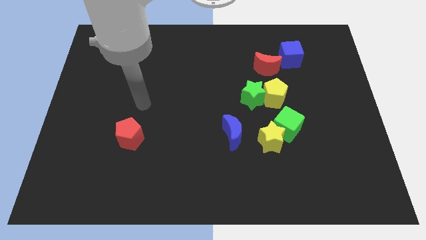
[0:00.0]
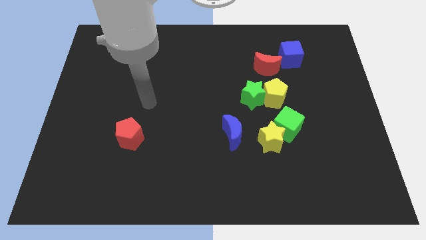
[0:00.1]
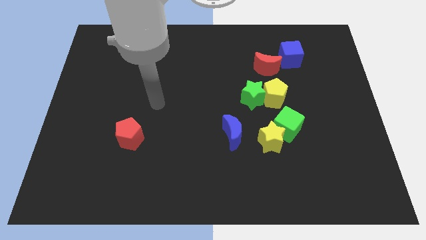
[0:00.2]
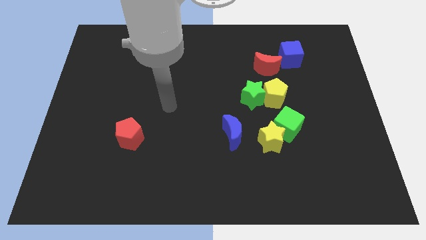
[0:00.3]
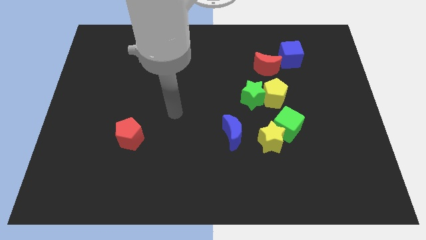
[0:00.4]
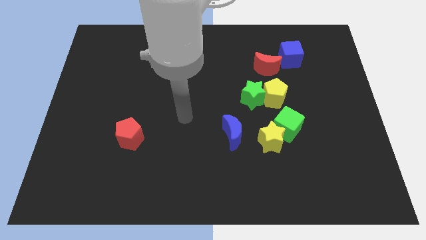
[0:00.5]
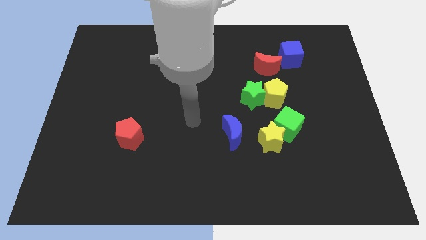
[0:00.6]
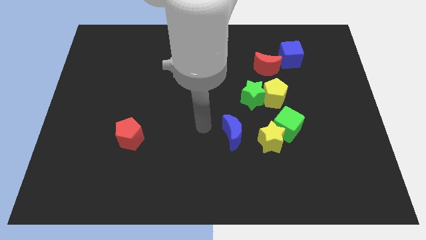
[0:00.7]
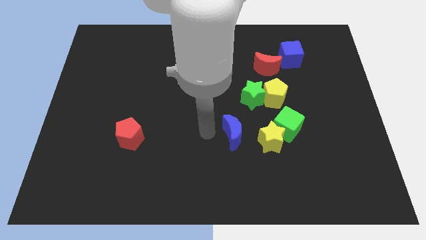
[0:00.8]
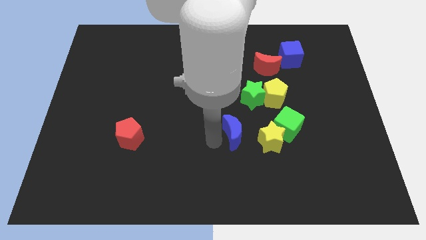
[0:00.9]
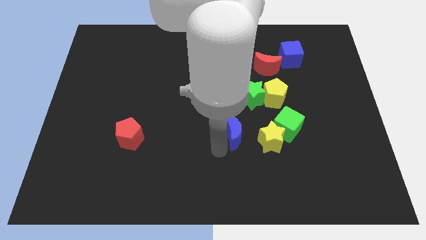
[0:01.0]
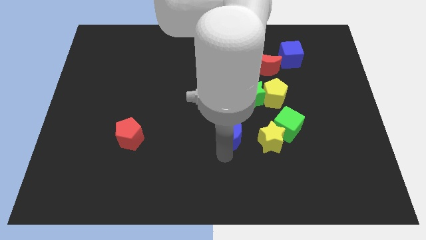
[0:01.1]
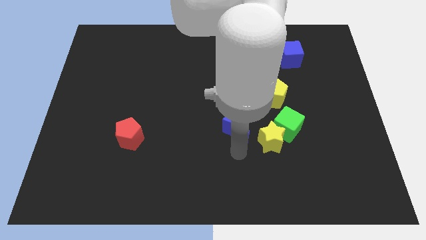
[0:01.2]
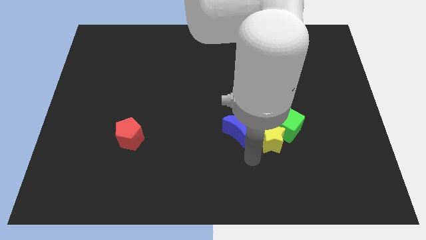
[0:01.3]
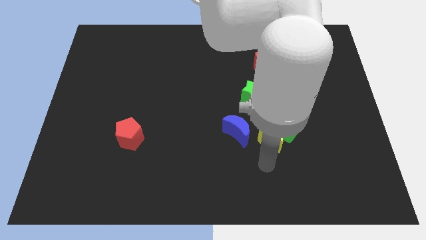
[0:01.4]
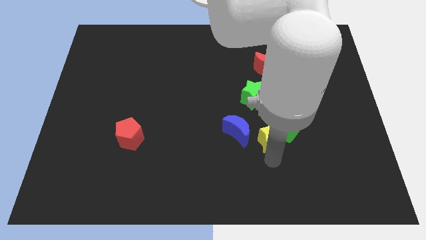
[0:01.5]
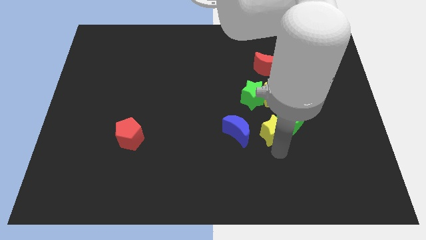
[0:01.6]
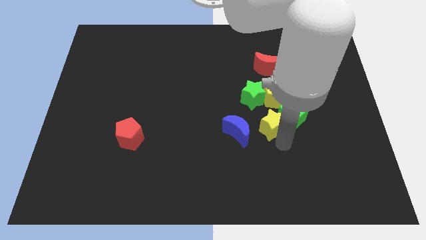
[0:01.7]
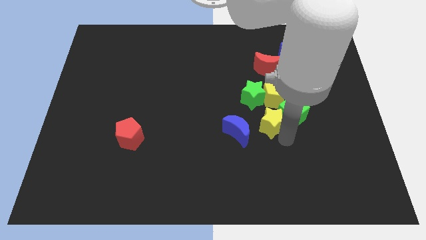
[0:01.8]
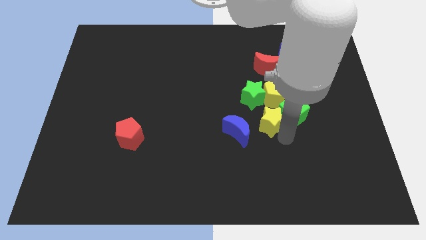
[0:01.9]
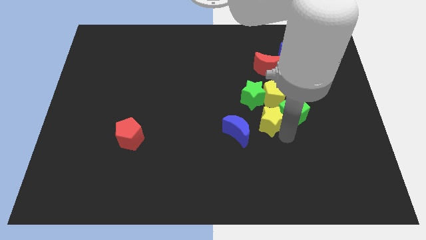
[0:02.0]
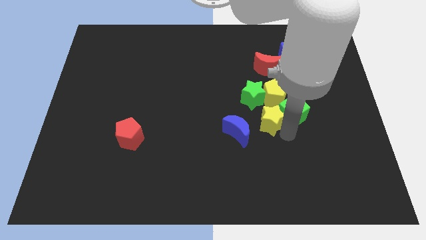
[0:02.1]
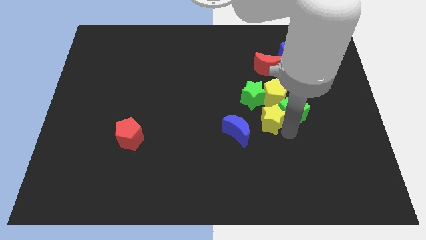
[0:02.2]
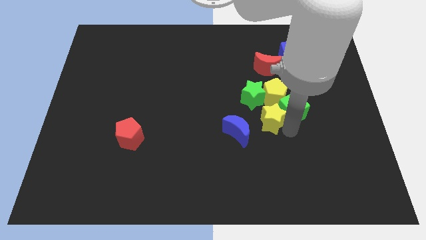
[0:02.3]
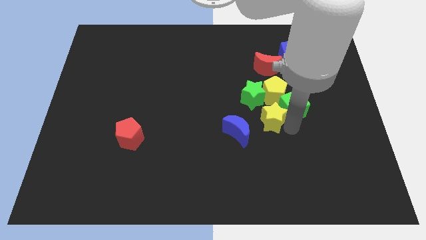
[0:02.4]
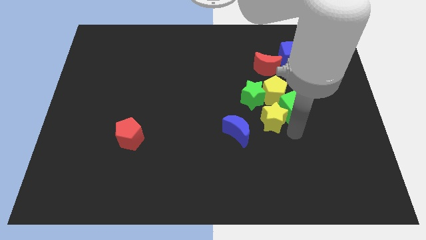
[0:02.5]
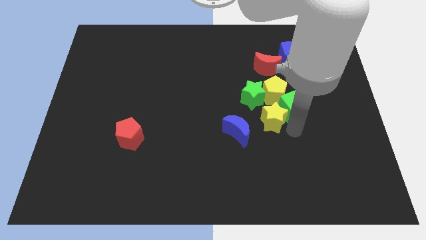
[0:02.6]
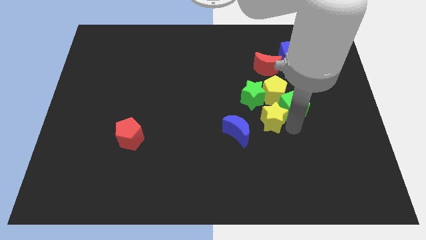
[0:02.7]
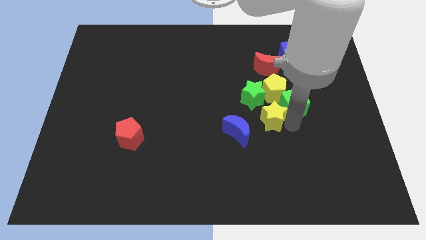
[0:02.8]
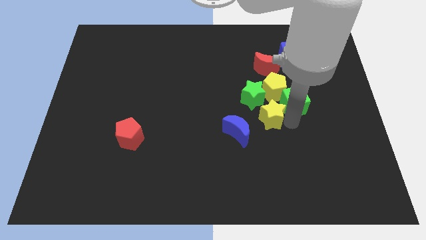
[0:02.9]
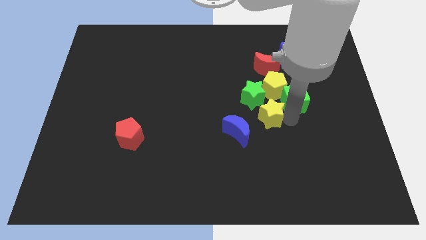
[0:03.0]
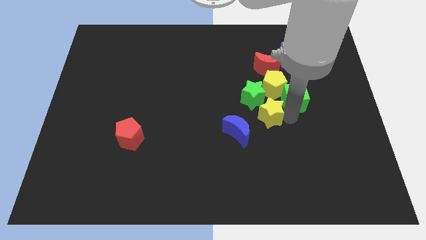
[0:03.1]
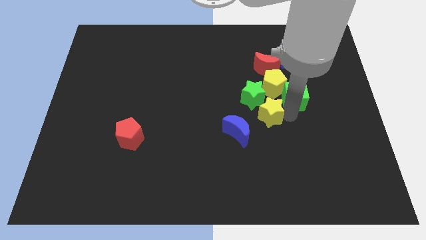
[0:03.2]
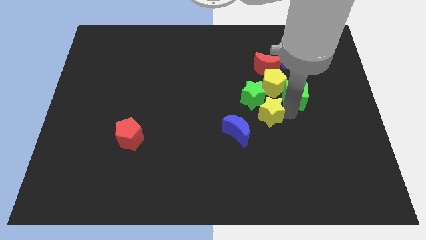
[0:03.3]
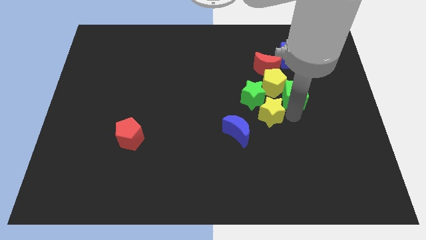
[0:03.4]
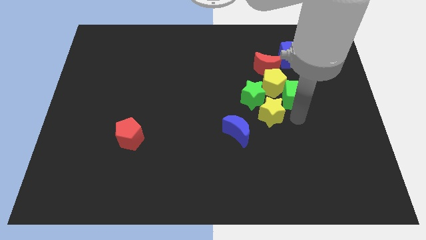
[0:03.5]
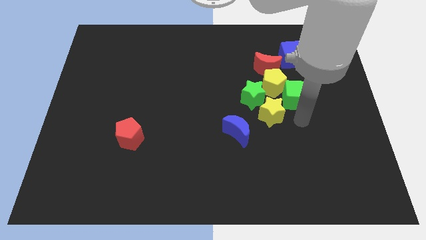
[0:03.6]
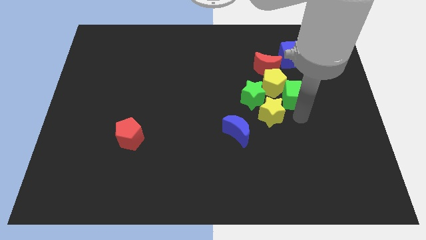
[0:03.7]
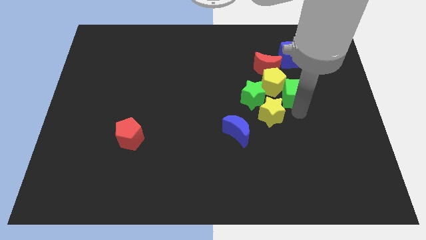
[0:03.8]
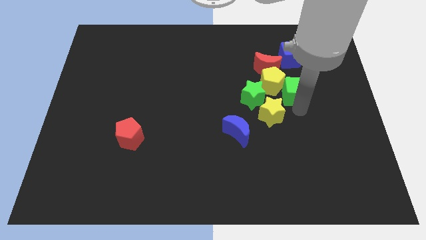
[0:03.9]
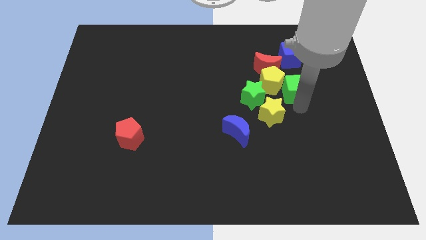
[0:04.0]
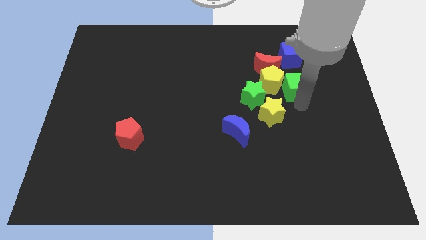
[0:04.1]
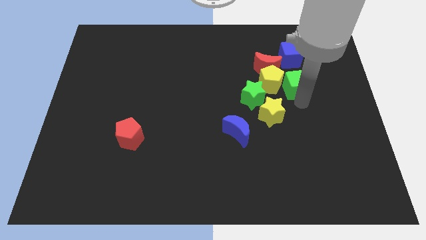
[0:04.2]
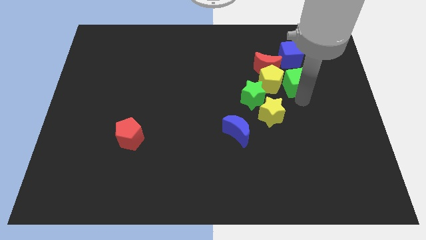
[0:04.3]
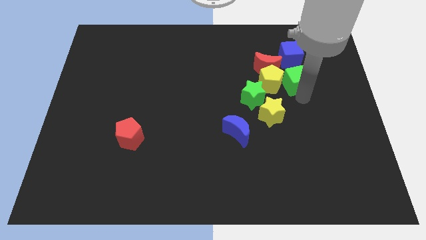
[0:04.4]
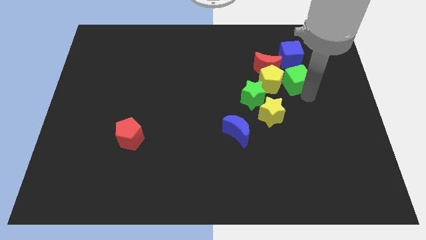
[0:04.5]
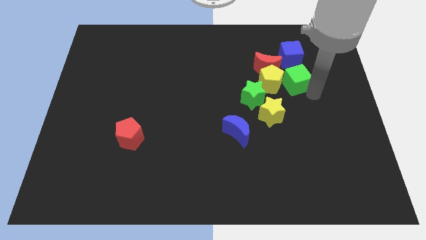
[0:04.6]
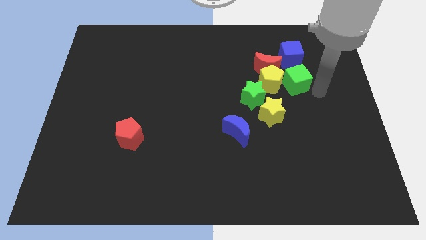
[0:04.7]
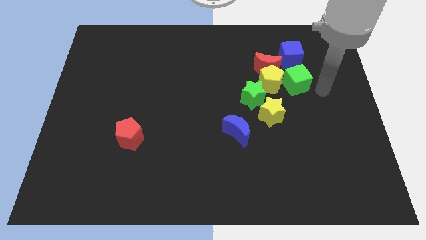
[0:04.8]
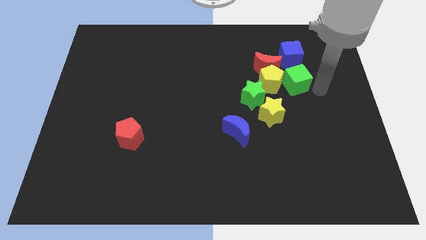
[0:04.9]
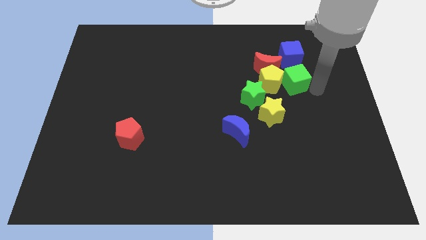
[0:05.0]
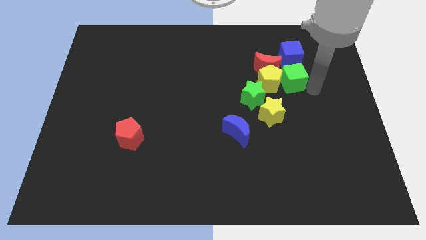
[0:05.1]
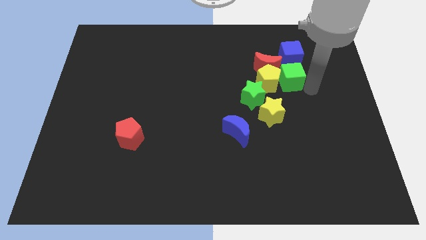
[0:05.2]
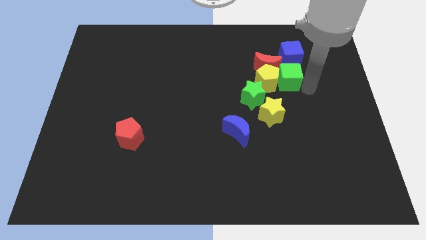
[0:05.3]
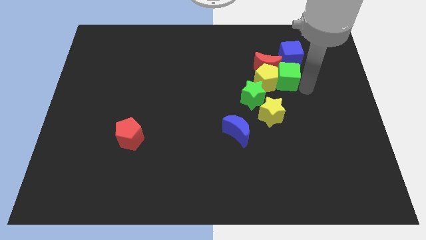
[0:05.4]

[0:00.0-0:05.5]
slide the green cube close to the red moon

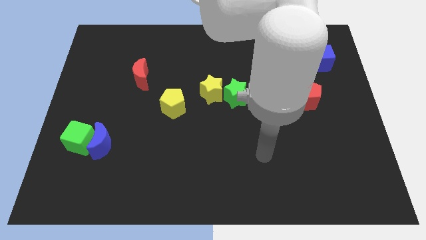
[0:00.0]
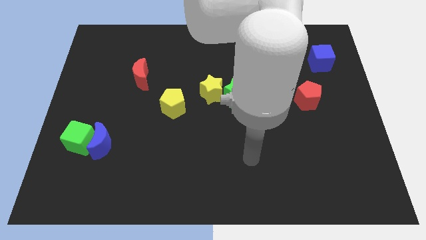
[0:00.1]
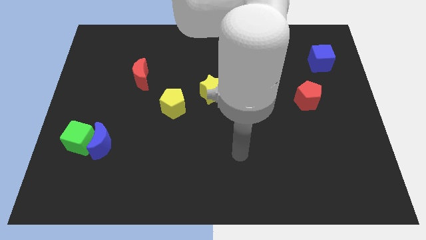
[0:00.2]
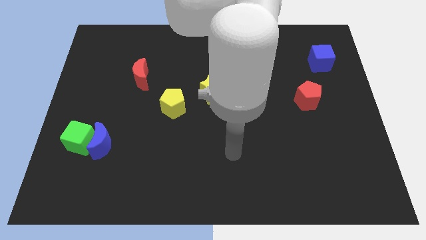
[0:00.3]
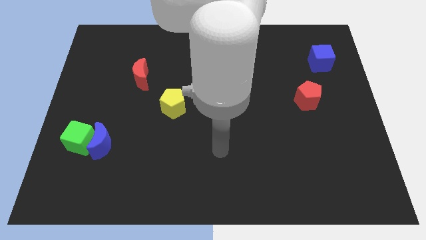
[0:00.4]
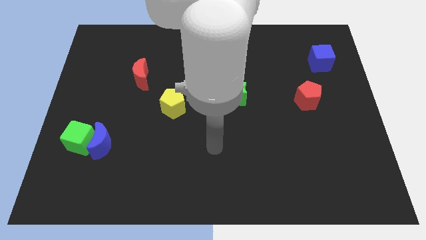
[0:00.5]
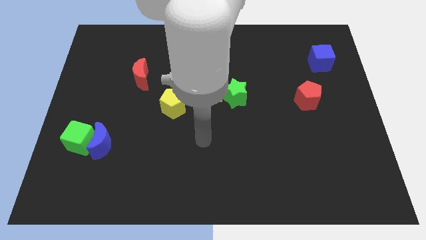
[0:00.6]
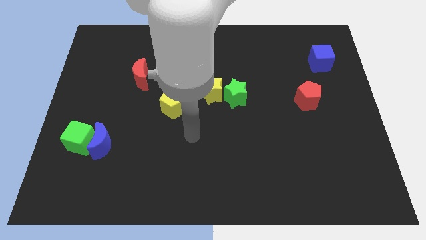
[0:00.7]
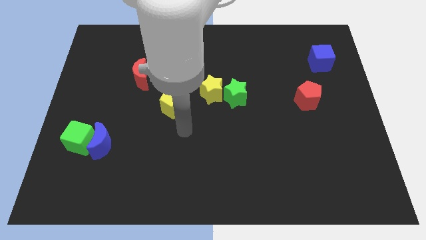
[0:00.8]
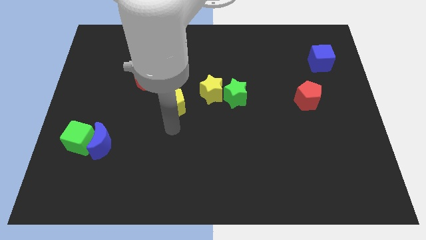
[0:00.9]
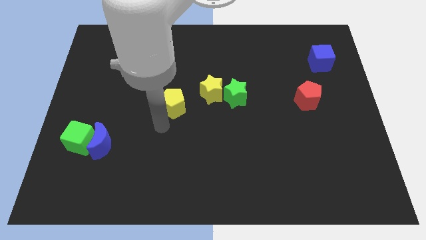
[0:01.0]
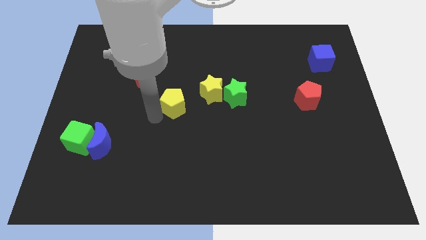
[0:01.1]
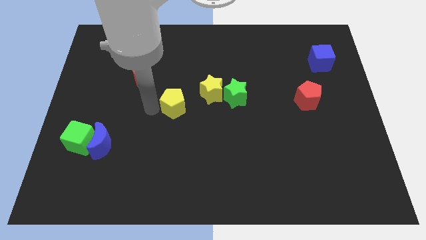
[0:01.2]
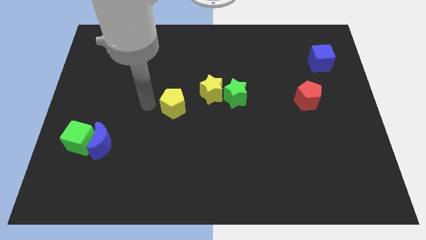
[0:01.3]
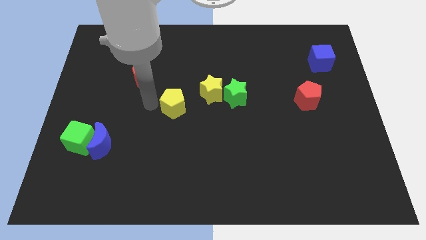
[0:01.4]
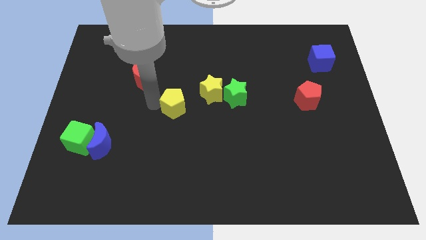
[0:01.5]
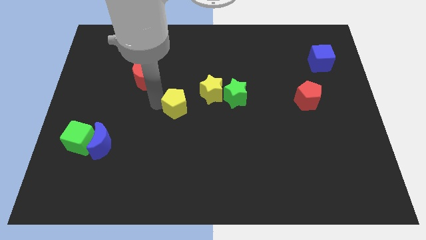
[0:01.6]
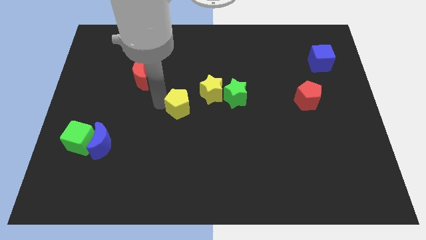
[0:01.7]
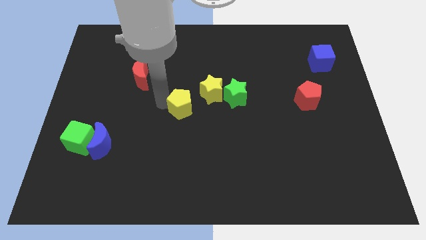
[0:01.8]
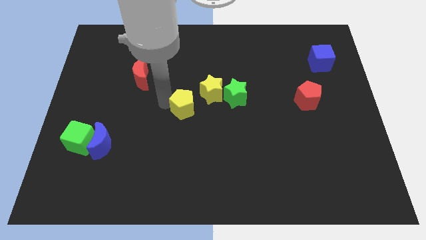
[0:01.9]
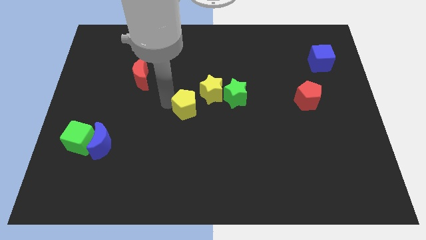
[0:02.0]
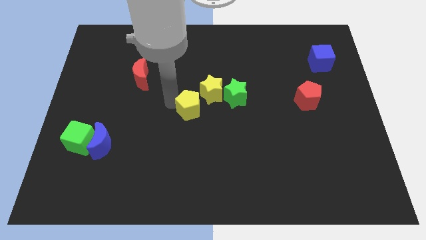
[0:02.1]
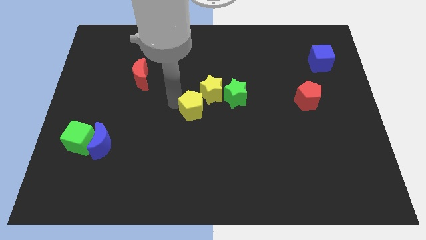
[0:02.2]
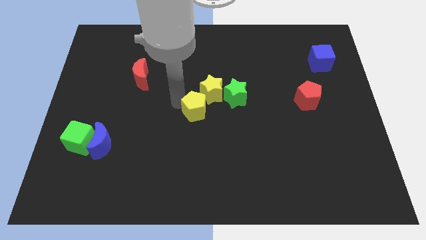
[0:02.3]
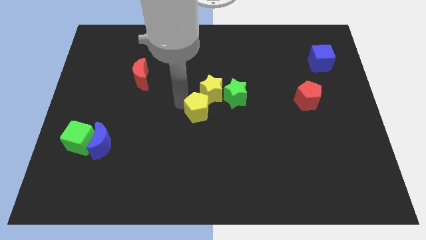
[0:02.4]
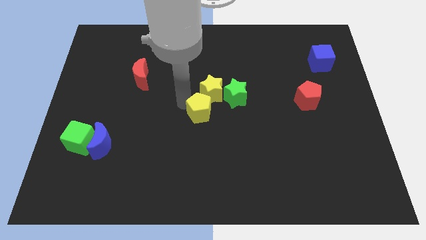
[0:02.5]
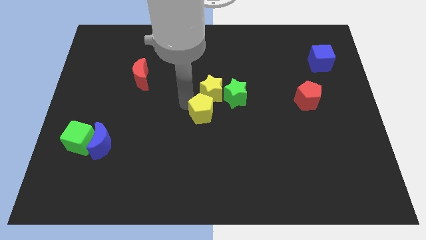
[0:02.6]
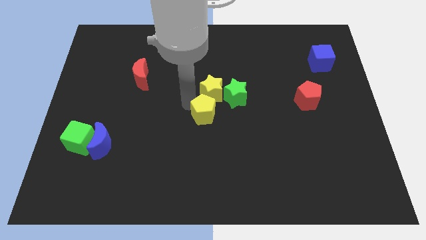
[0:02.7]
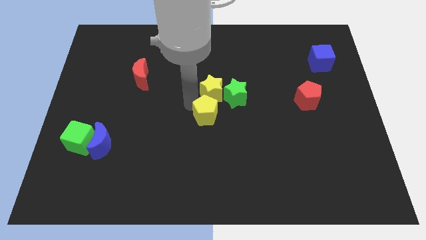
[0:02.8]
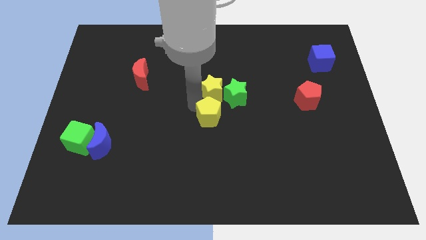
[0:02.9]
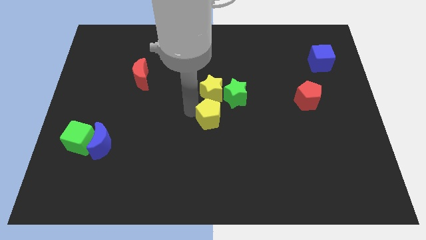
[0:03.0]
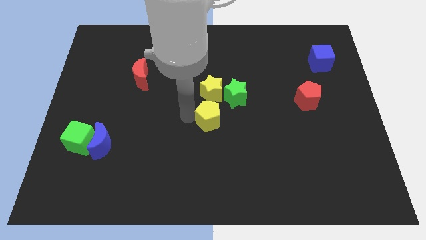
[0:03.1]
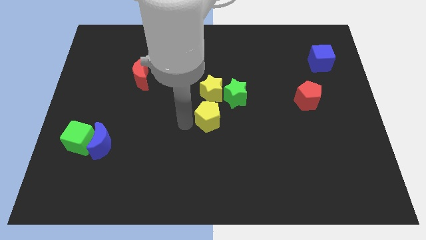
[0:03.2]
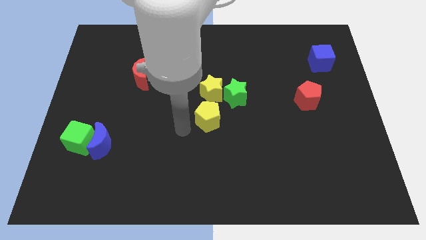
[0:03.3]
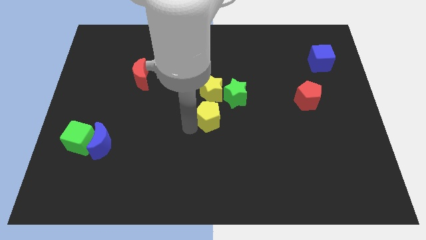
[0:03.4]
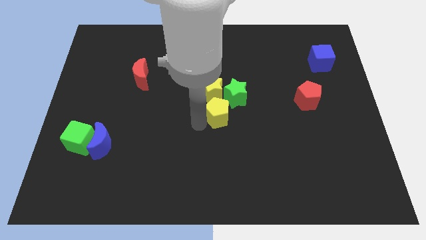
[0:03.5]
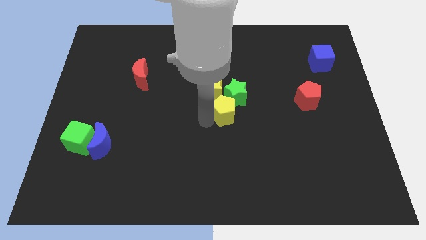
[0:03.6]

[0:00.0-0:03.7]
push the yellow pentagon next to the green star
